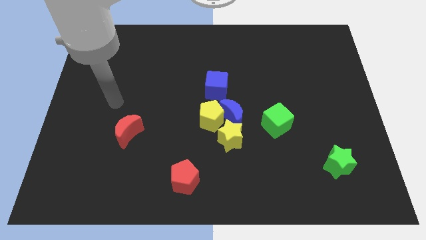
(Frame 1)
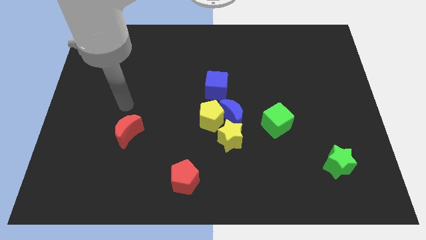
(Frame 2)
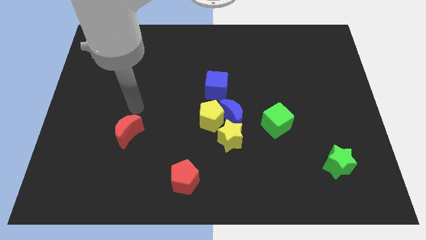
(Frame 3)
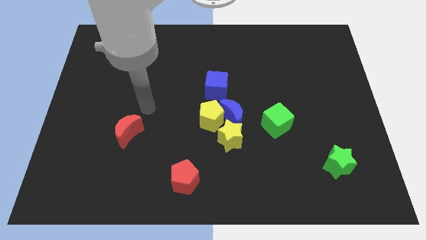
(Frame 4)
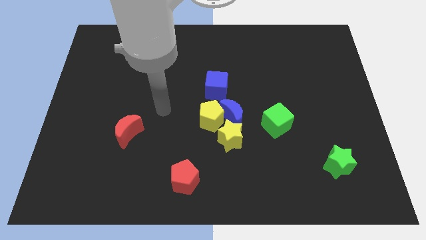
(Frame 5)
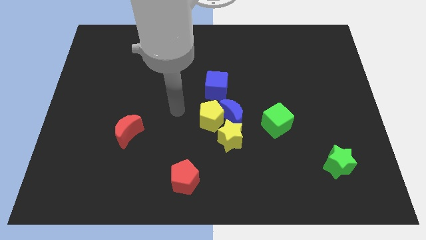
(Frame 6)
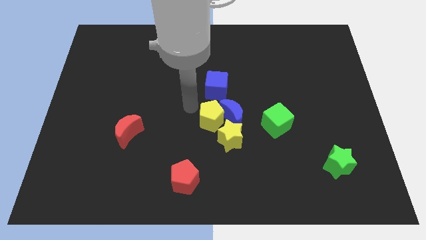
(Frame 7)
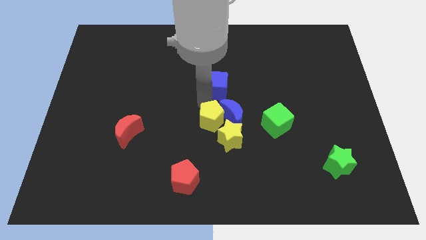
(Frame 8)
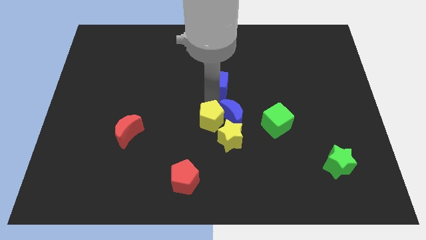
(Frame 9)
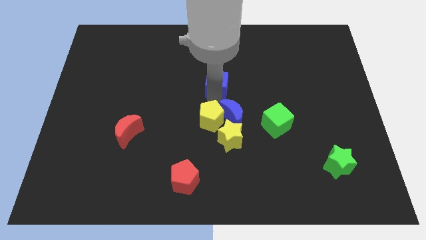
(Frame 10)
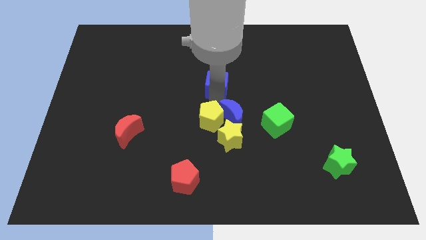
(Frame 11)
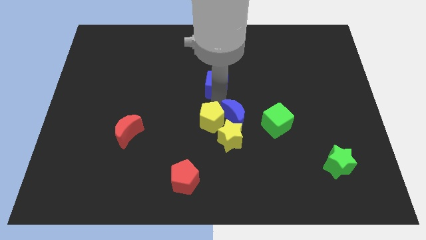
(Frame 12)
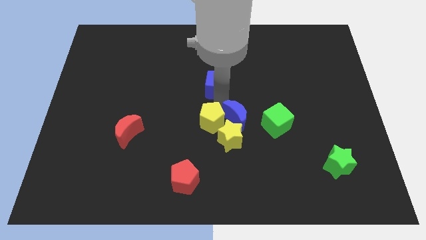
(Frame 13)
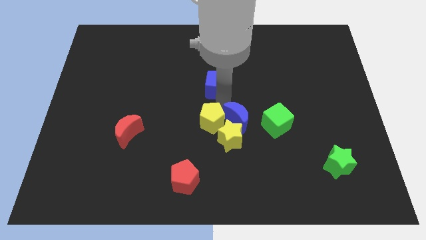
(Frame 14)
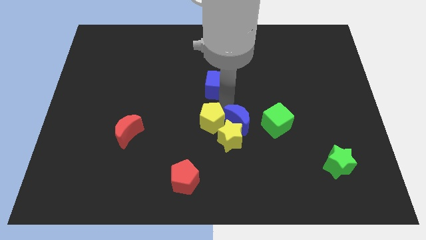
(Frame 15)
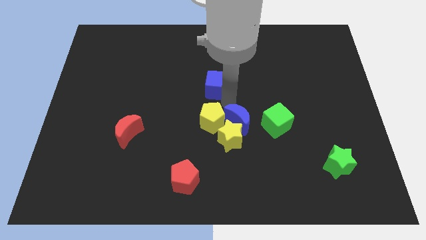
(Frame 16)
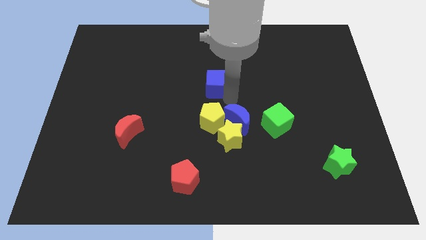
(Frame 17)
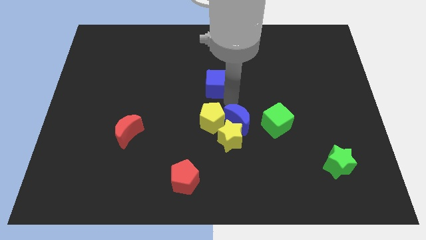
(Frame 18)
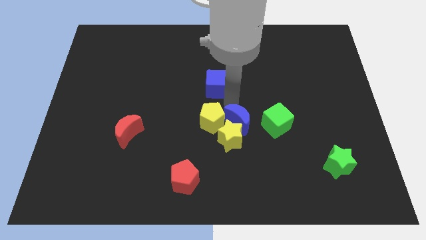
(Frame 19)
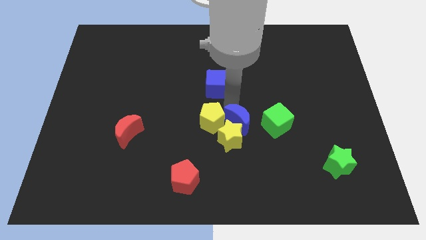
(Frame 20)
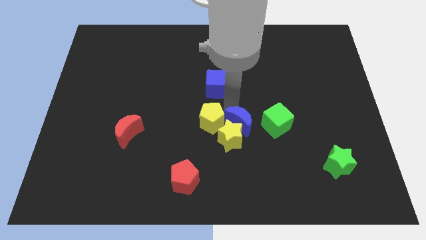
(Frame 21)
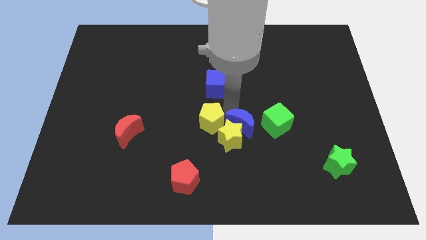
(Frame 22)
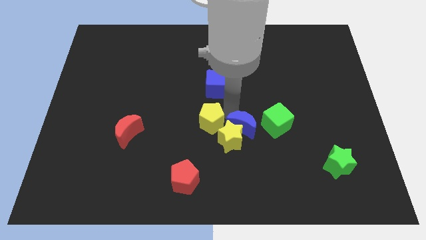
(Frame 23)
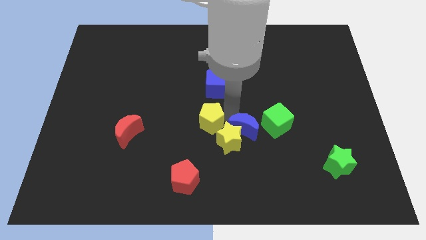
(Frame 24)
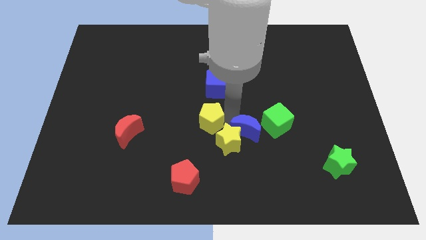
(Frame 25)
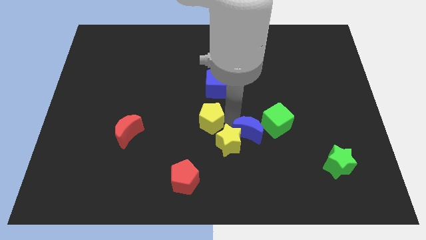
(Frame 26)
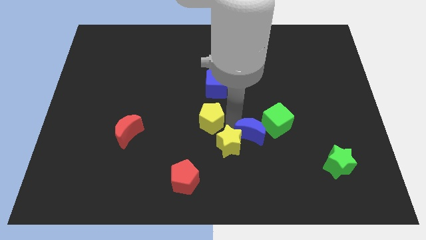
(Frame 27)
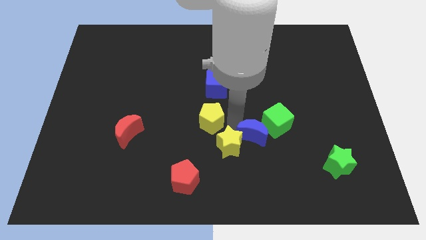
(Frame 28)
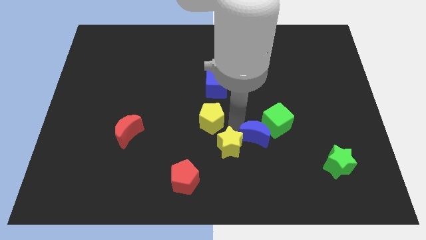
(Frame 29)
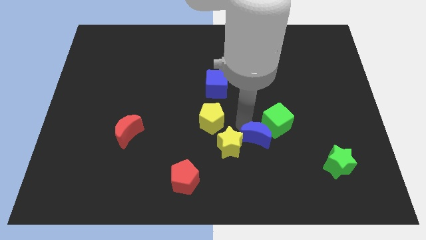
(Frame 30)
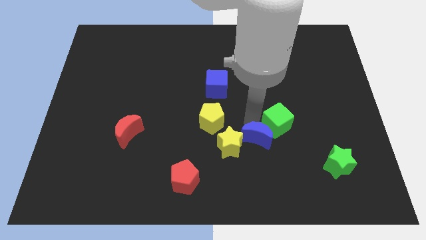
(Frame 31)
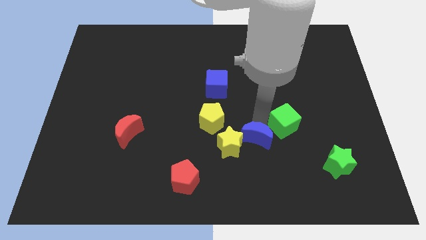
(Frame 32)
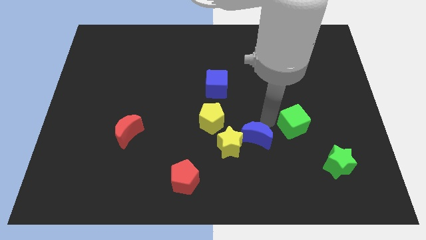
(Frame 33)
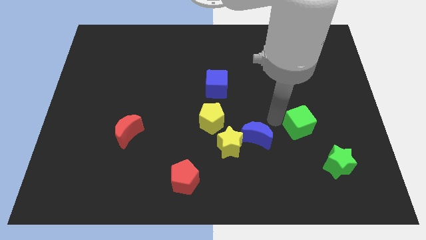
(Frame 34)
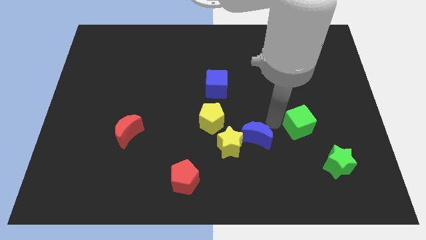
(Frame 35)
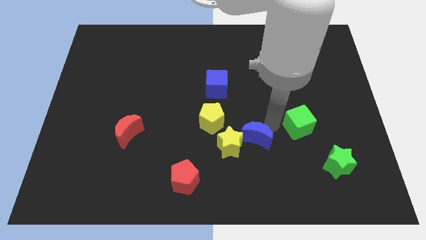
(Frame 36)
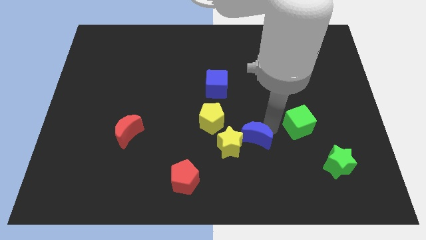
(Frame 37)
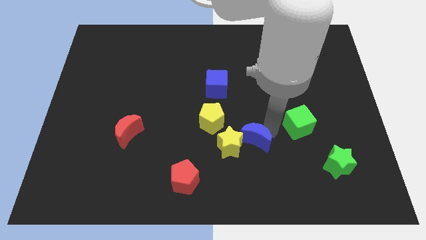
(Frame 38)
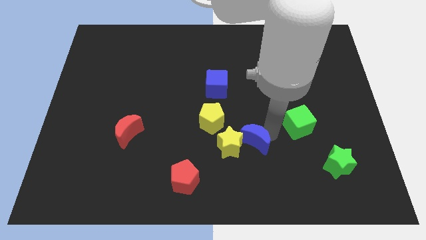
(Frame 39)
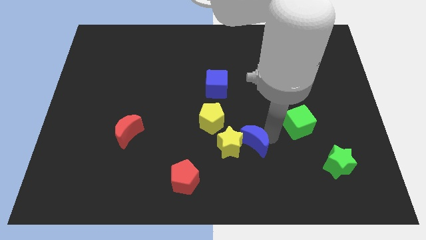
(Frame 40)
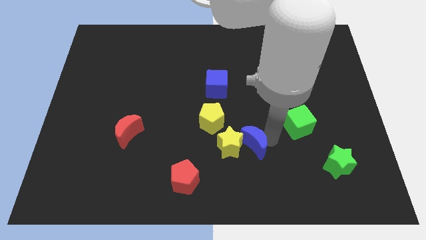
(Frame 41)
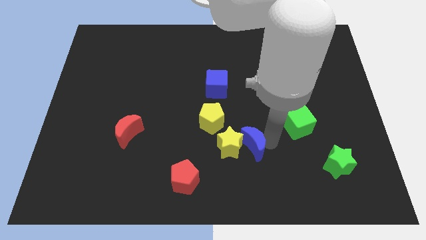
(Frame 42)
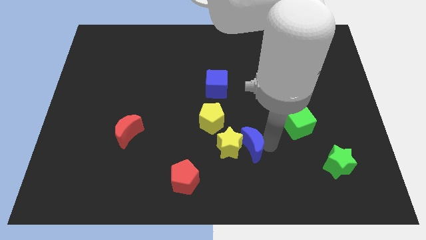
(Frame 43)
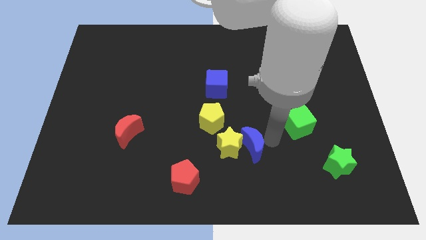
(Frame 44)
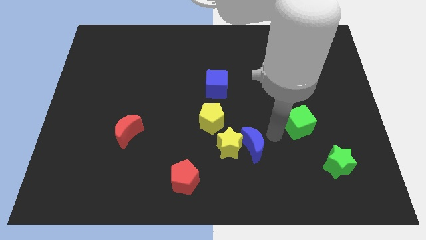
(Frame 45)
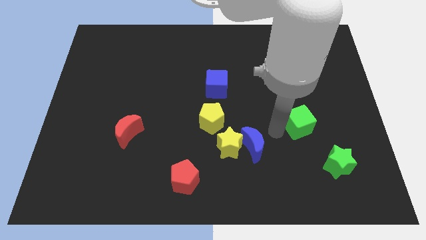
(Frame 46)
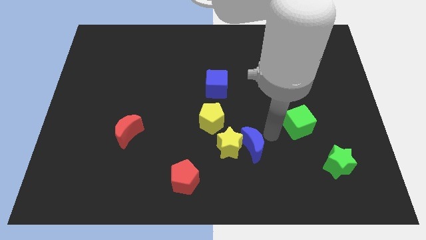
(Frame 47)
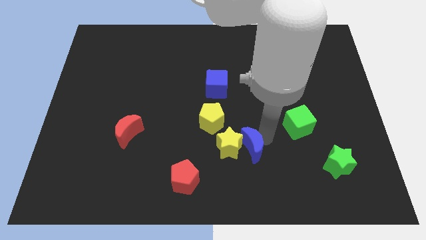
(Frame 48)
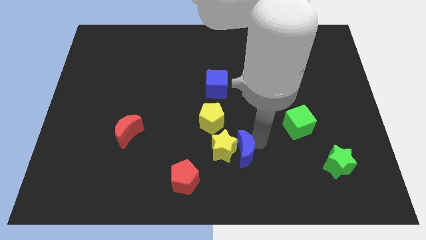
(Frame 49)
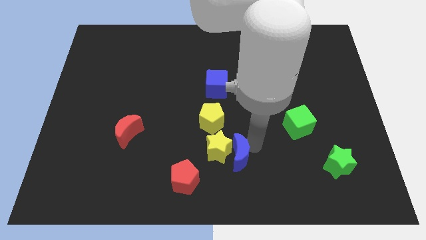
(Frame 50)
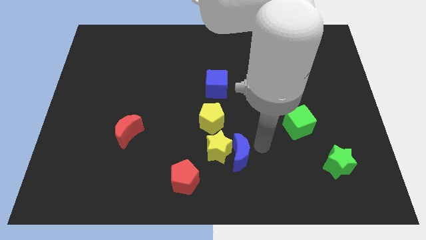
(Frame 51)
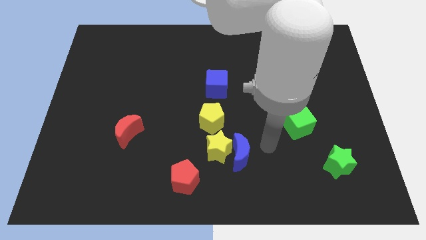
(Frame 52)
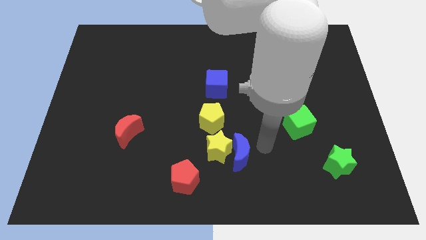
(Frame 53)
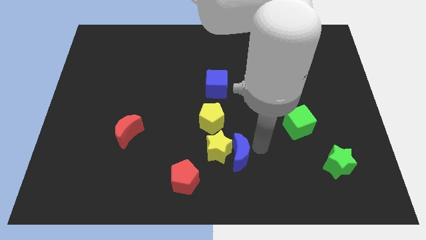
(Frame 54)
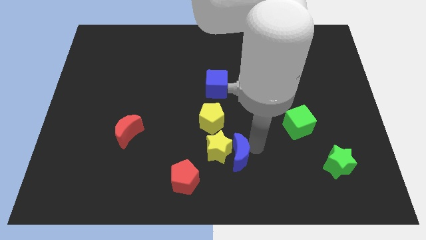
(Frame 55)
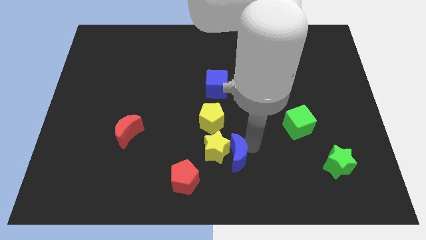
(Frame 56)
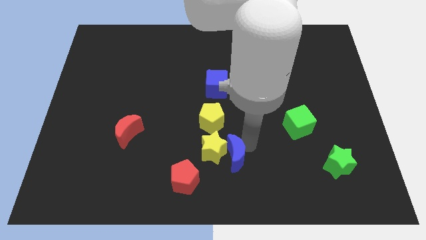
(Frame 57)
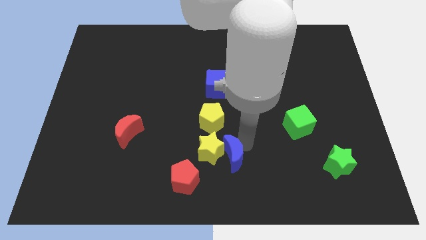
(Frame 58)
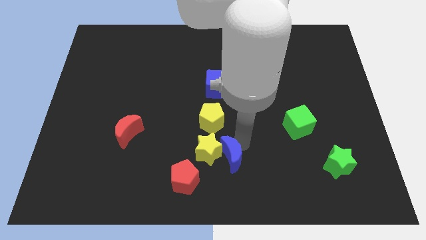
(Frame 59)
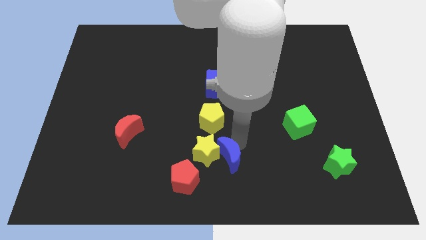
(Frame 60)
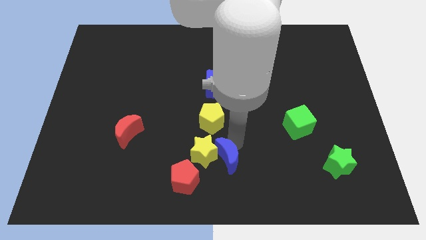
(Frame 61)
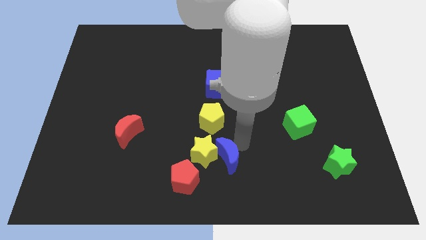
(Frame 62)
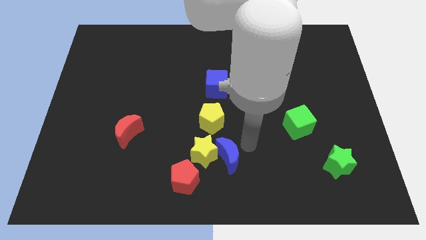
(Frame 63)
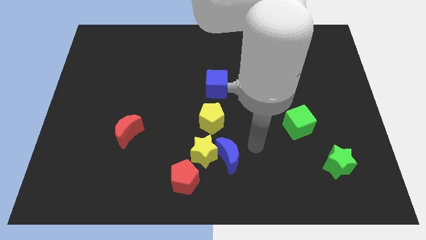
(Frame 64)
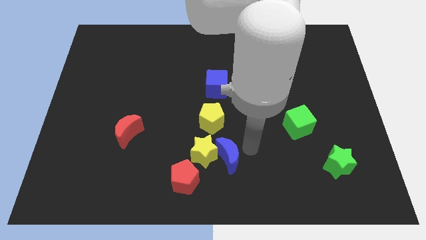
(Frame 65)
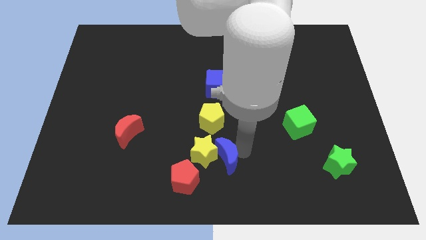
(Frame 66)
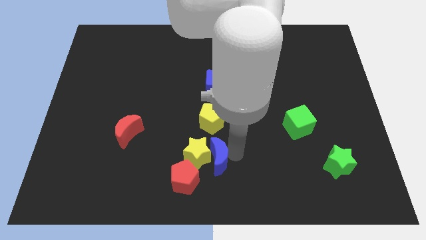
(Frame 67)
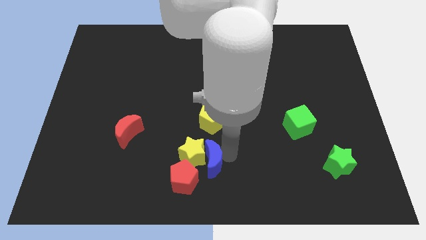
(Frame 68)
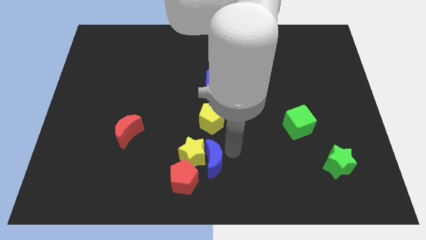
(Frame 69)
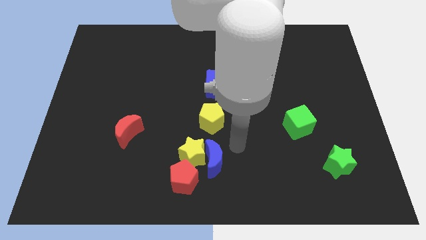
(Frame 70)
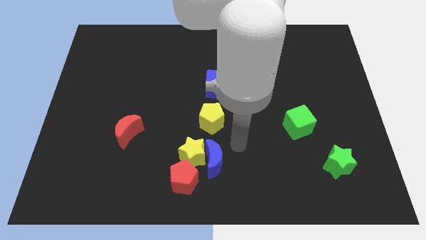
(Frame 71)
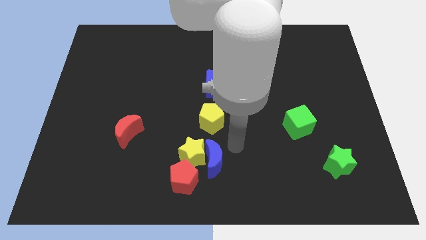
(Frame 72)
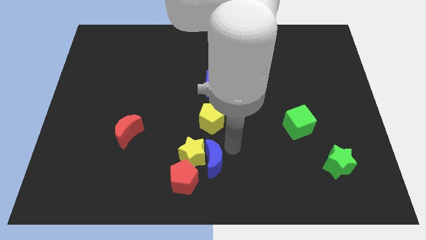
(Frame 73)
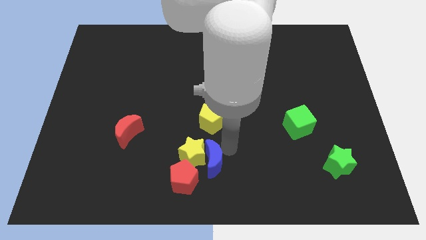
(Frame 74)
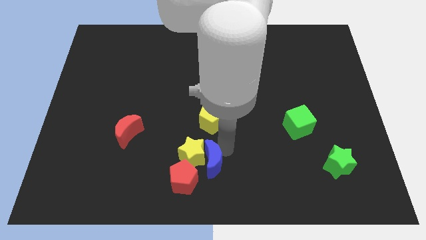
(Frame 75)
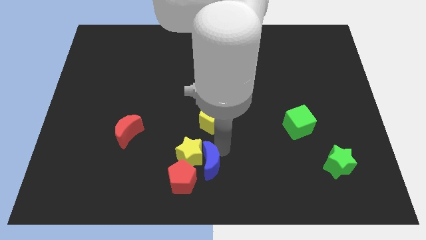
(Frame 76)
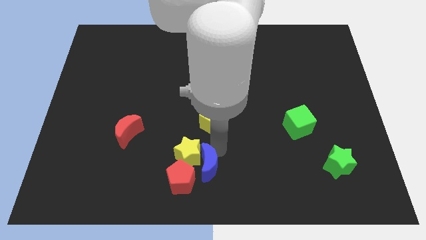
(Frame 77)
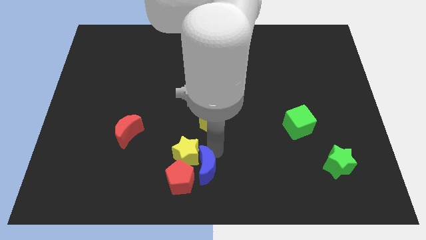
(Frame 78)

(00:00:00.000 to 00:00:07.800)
push the blue moon towards the red pentagon
